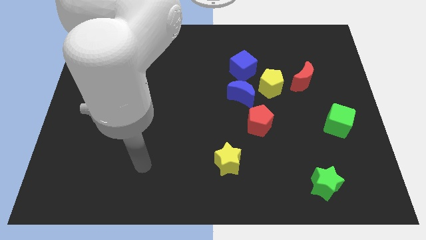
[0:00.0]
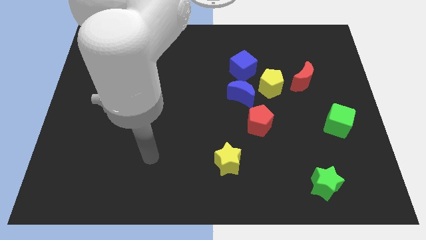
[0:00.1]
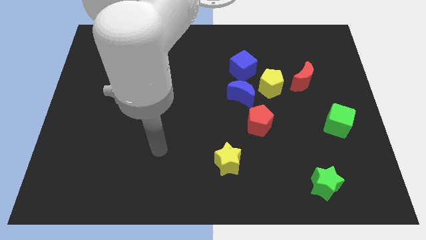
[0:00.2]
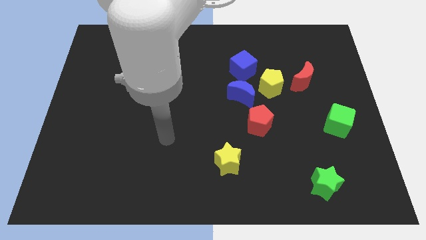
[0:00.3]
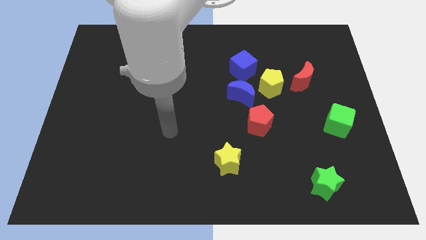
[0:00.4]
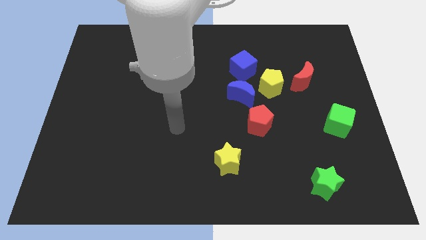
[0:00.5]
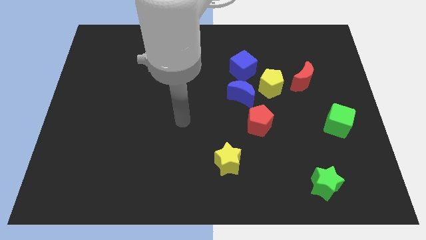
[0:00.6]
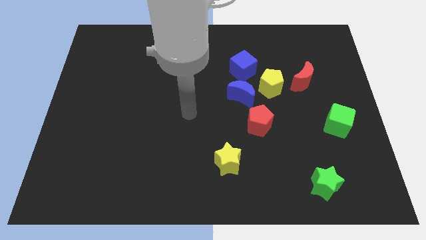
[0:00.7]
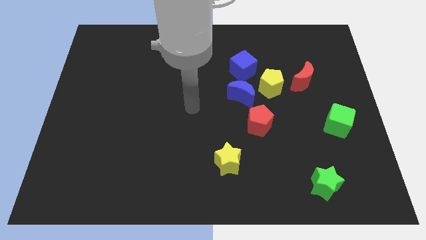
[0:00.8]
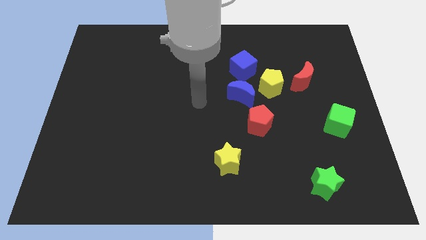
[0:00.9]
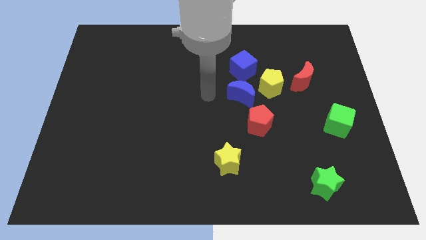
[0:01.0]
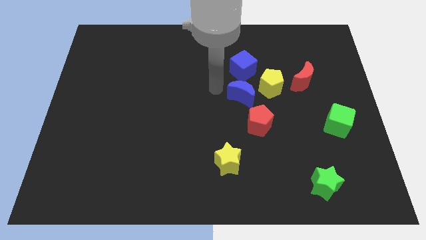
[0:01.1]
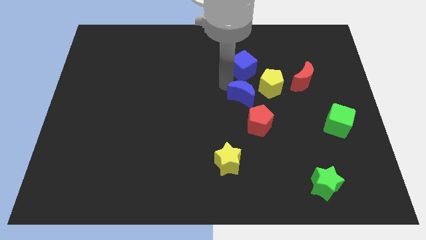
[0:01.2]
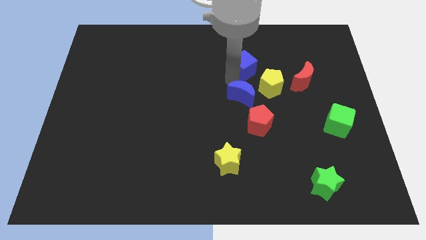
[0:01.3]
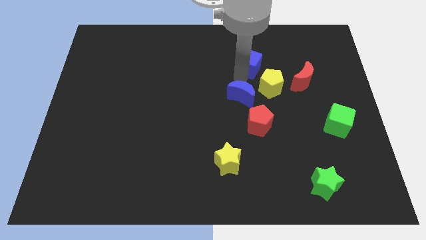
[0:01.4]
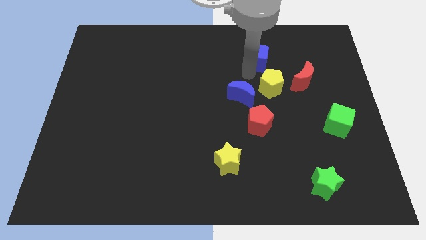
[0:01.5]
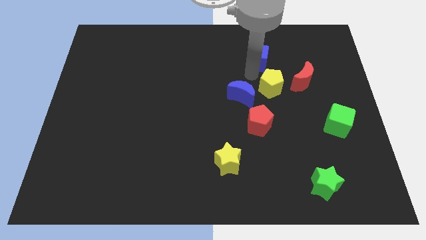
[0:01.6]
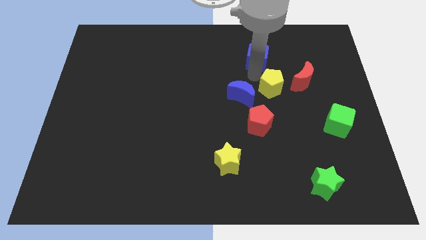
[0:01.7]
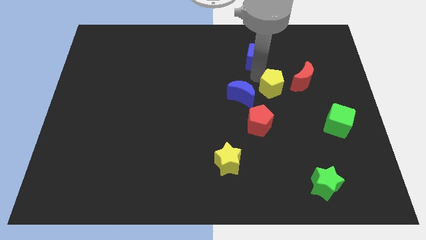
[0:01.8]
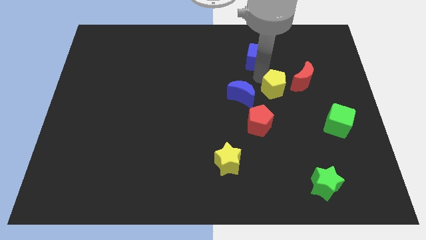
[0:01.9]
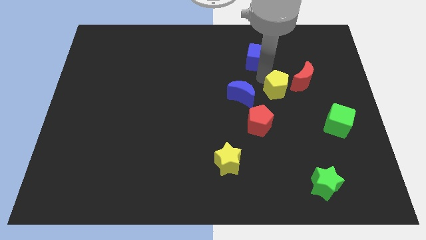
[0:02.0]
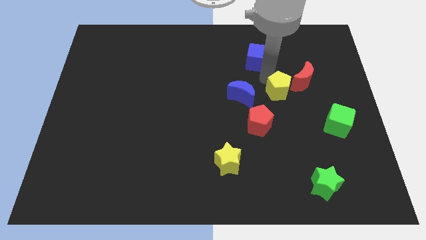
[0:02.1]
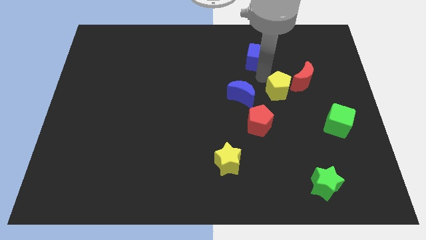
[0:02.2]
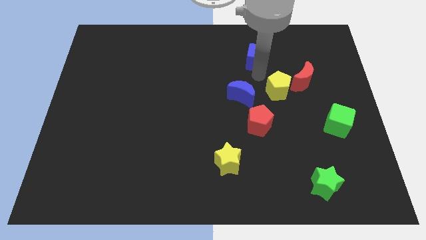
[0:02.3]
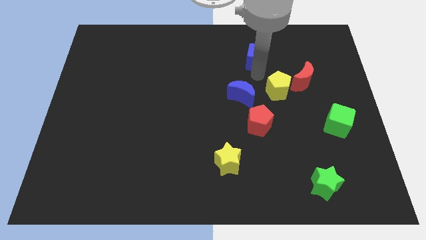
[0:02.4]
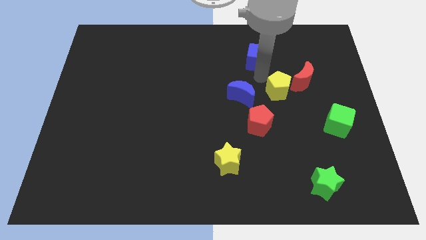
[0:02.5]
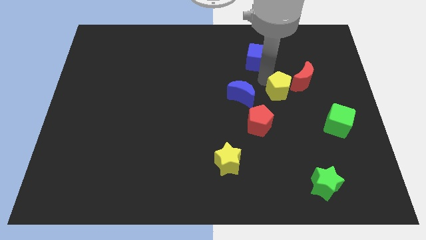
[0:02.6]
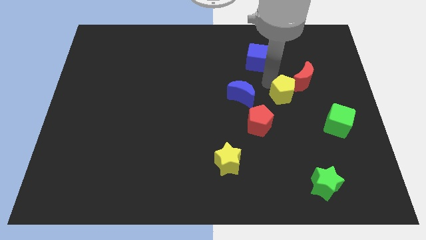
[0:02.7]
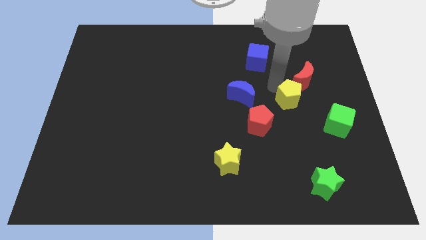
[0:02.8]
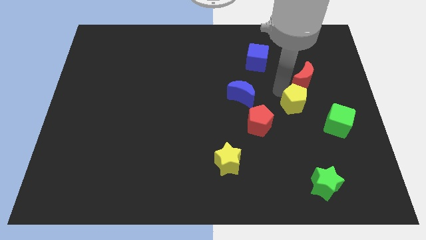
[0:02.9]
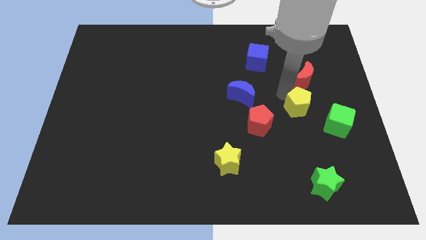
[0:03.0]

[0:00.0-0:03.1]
pull the yellow pentagon apart from the blue moon, blue cube, and red moon

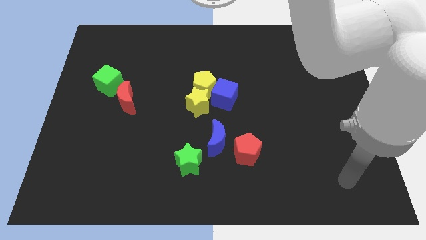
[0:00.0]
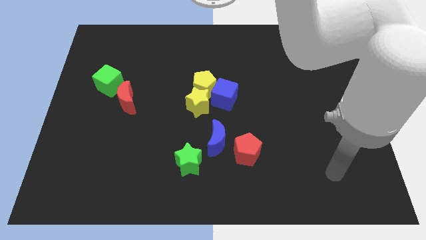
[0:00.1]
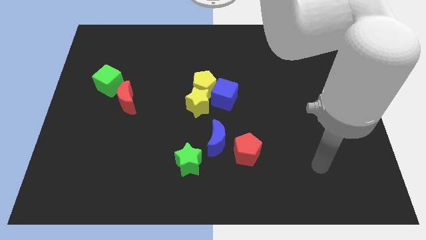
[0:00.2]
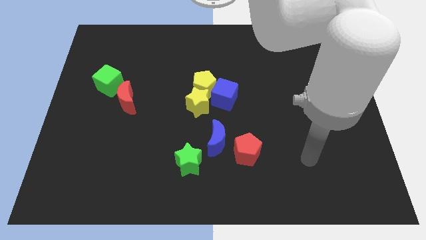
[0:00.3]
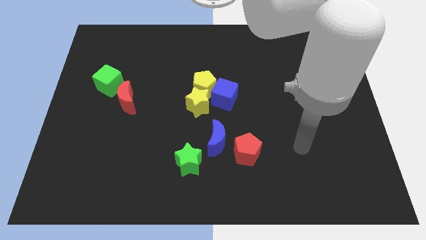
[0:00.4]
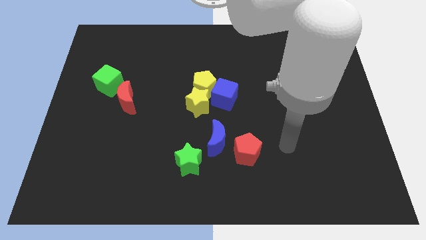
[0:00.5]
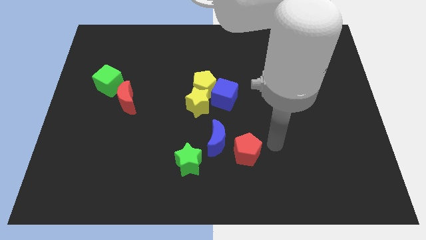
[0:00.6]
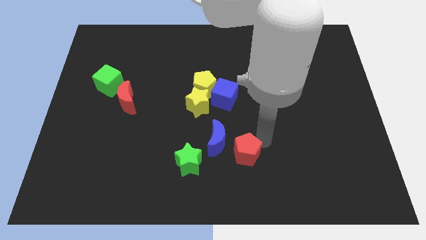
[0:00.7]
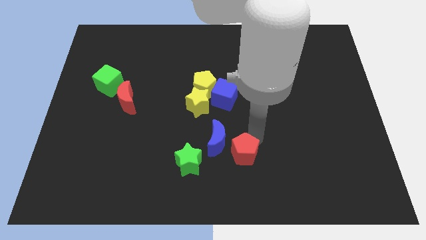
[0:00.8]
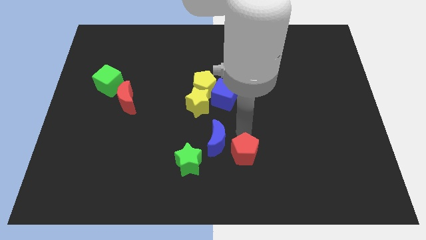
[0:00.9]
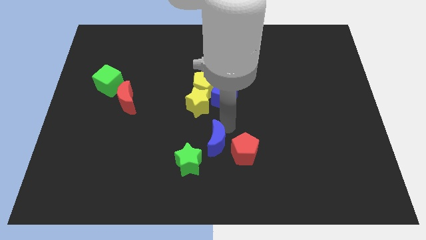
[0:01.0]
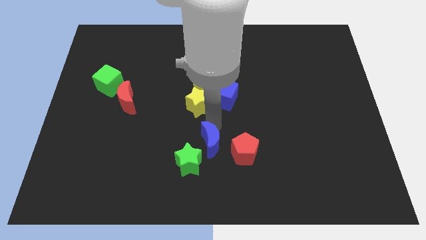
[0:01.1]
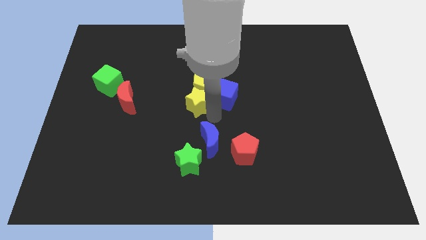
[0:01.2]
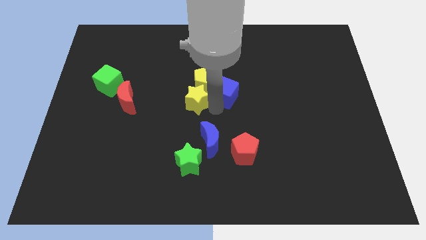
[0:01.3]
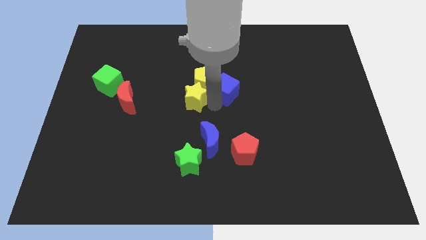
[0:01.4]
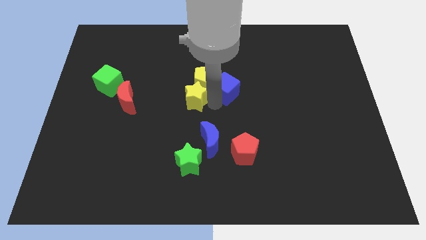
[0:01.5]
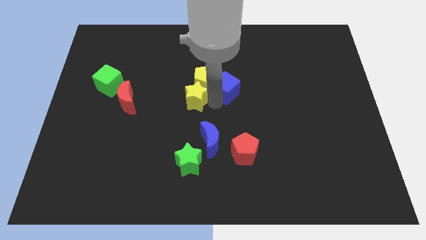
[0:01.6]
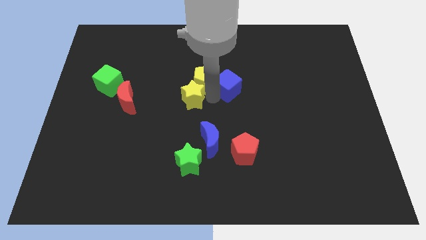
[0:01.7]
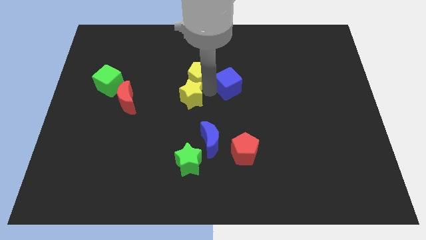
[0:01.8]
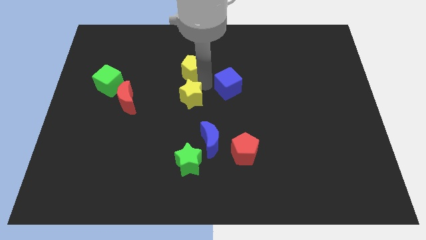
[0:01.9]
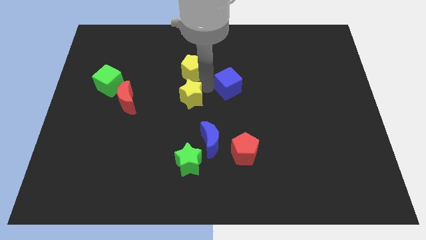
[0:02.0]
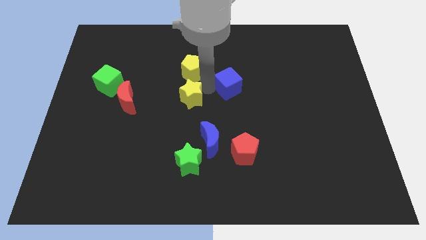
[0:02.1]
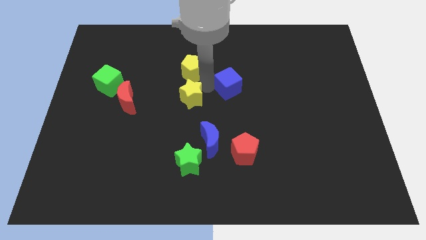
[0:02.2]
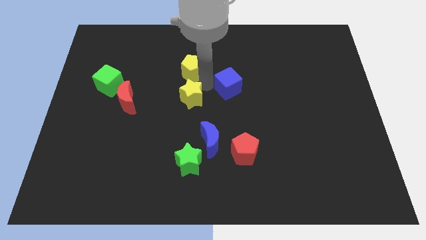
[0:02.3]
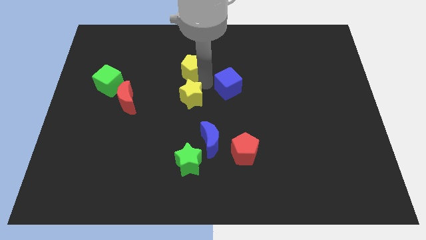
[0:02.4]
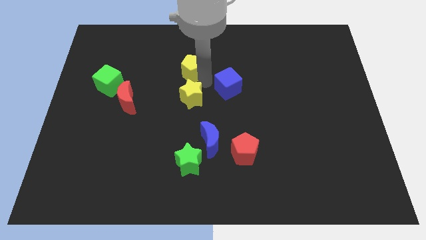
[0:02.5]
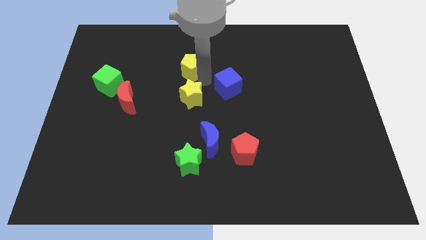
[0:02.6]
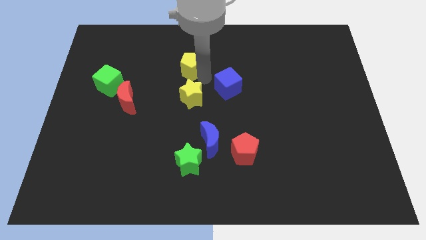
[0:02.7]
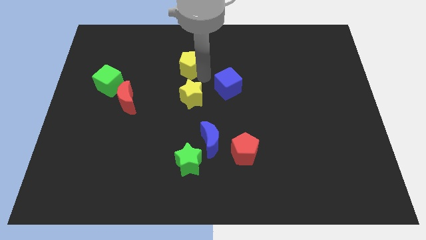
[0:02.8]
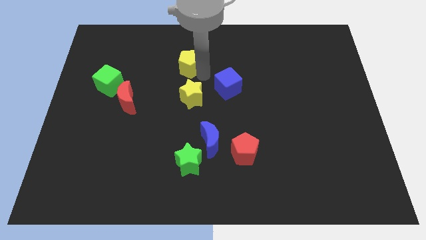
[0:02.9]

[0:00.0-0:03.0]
separate the yellow pentagon from the blue cube and yellow star

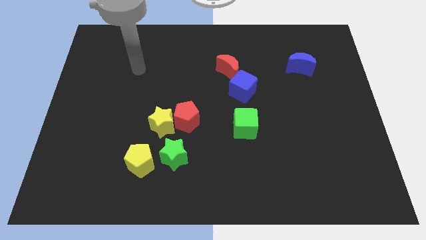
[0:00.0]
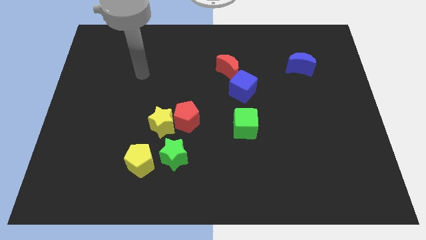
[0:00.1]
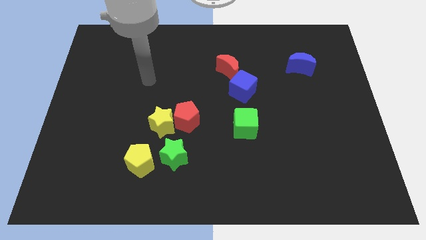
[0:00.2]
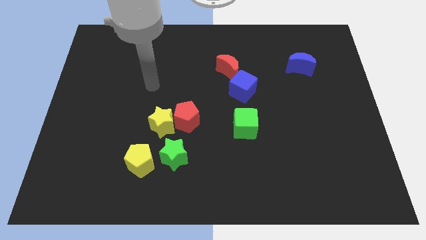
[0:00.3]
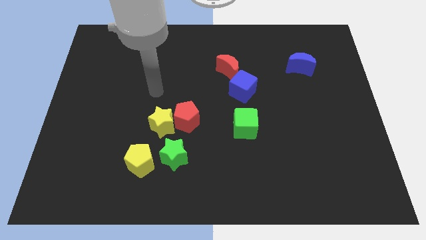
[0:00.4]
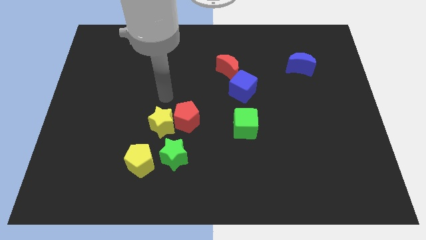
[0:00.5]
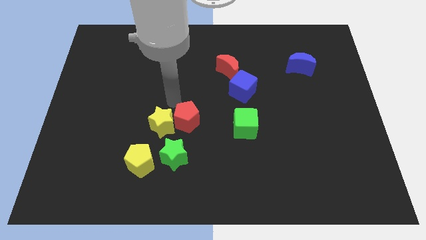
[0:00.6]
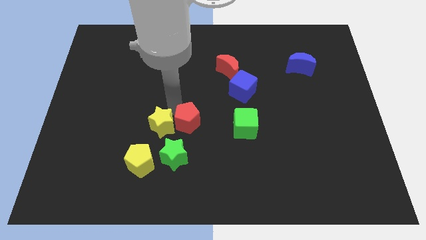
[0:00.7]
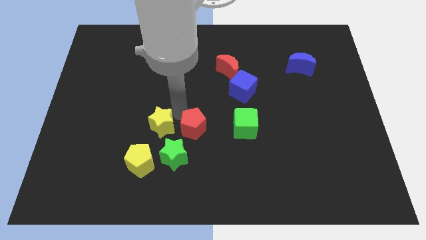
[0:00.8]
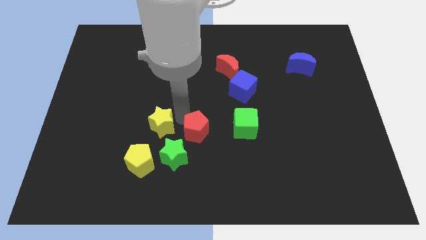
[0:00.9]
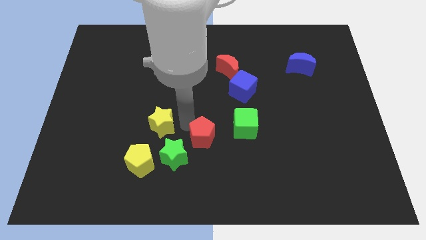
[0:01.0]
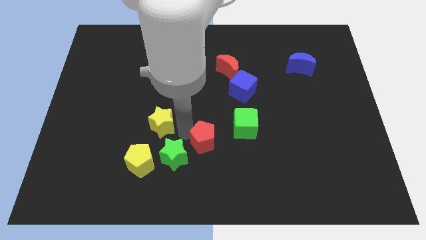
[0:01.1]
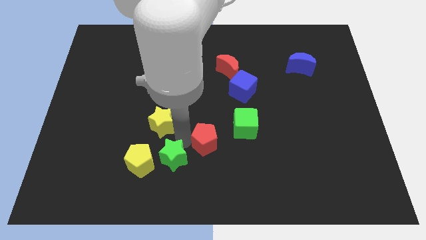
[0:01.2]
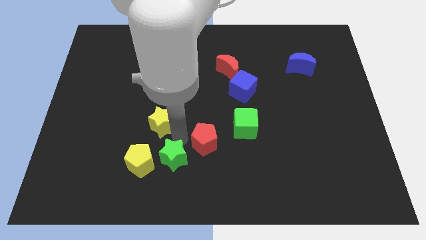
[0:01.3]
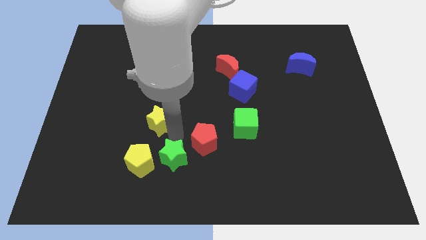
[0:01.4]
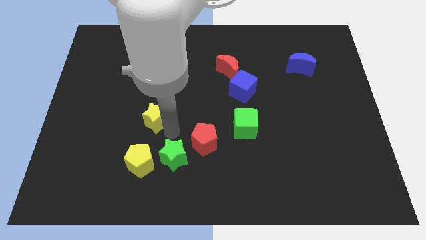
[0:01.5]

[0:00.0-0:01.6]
move the yellow star away from the red pentagon and green star

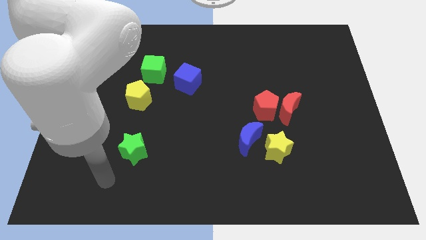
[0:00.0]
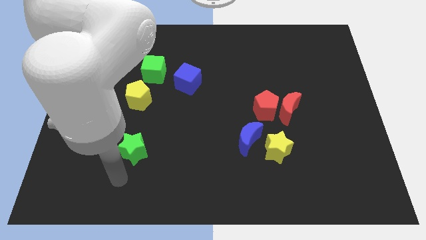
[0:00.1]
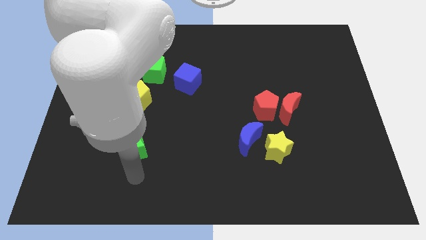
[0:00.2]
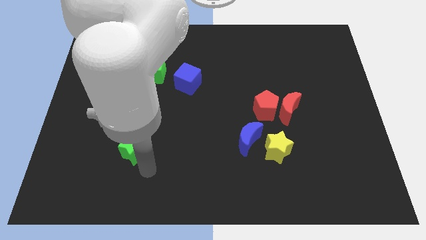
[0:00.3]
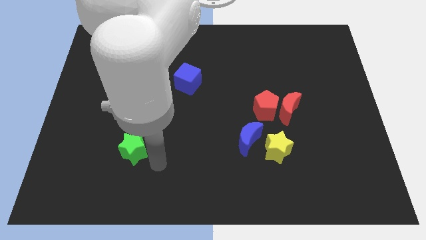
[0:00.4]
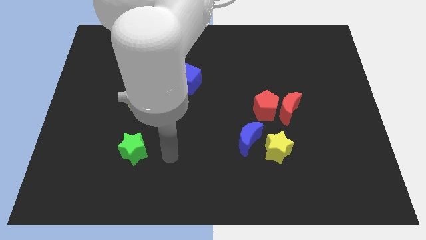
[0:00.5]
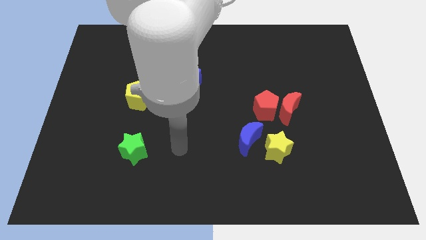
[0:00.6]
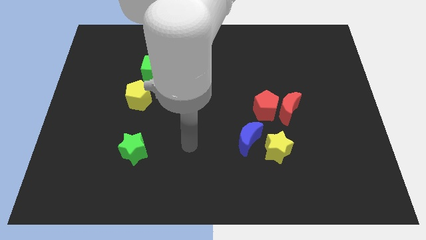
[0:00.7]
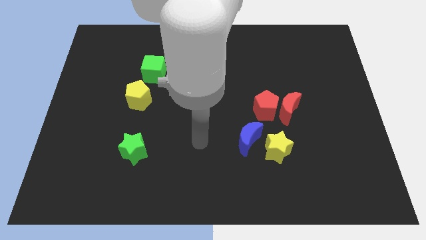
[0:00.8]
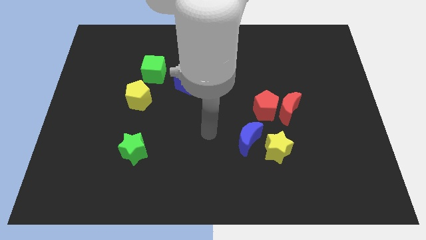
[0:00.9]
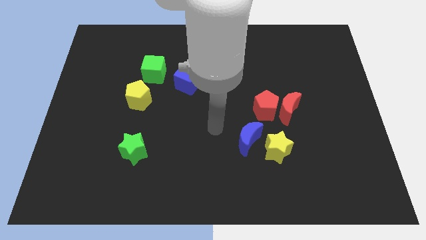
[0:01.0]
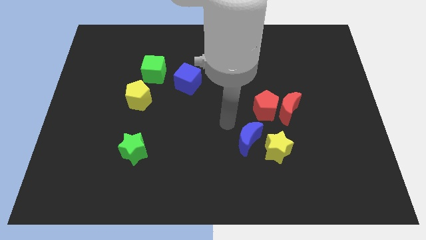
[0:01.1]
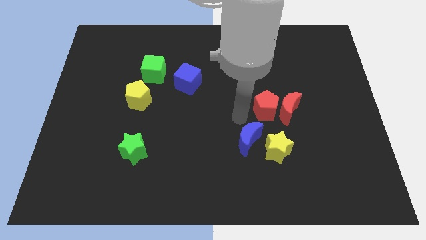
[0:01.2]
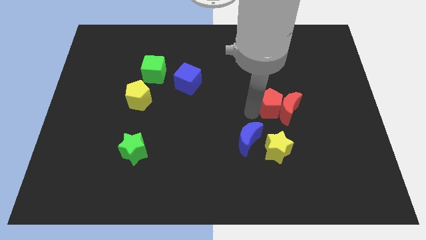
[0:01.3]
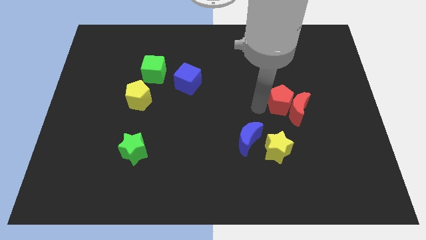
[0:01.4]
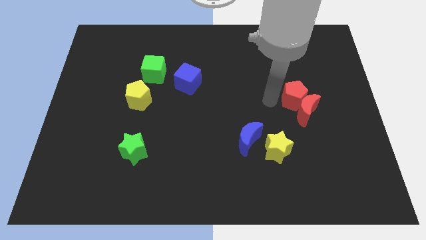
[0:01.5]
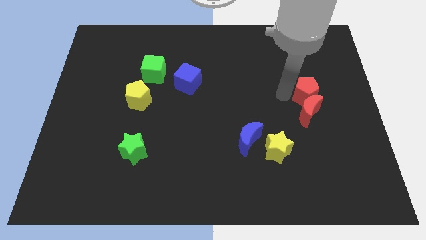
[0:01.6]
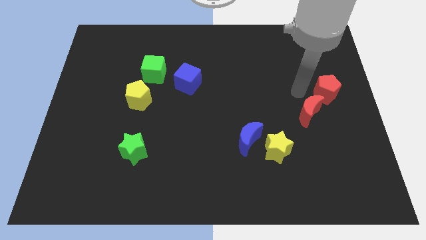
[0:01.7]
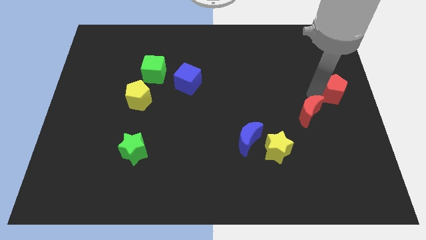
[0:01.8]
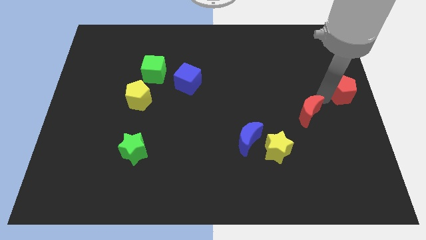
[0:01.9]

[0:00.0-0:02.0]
move the red moon away from the red pentagon
